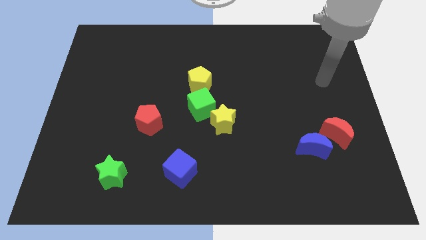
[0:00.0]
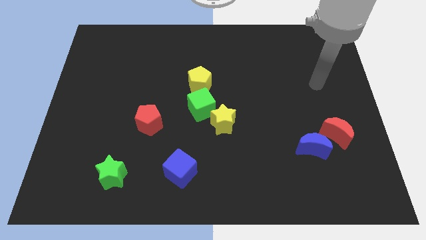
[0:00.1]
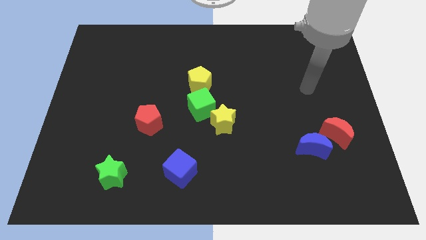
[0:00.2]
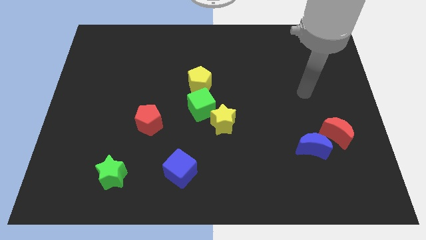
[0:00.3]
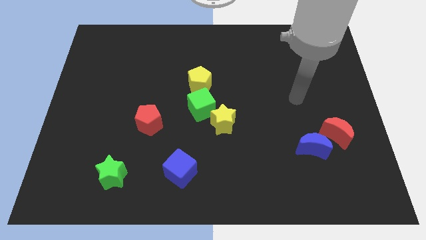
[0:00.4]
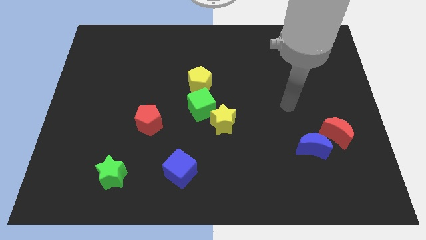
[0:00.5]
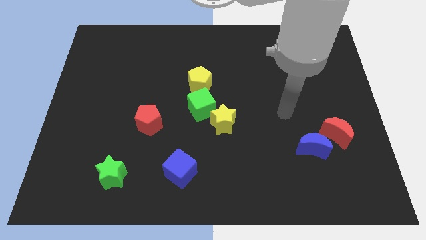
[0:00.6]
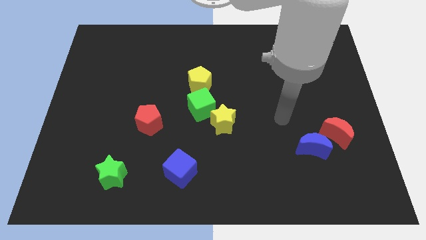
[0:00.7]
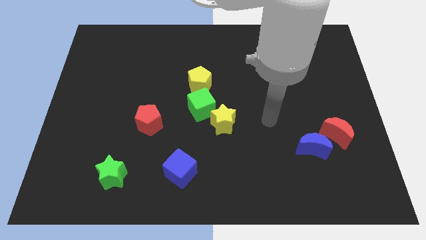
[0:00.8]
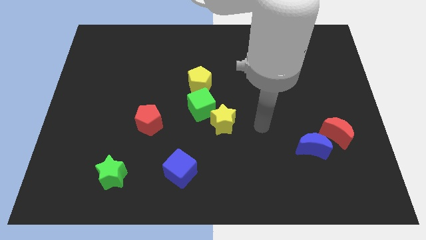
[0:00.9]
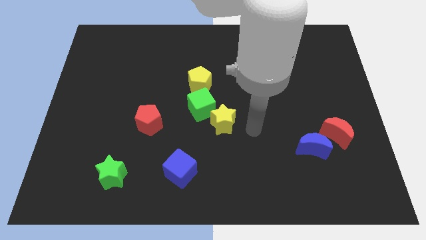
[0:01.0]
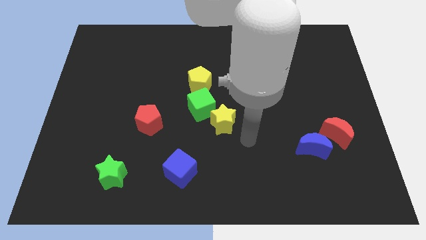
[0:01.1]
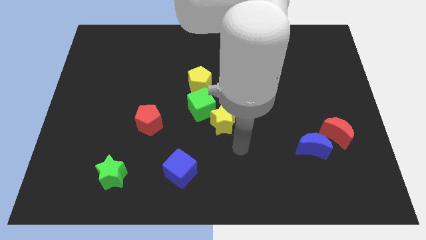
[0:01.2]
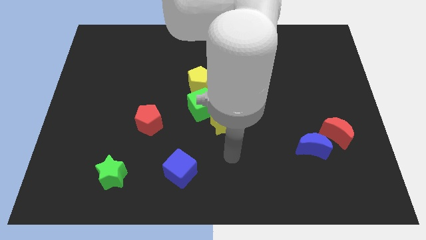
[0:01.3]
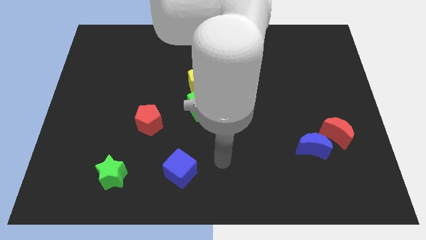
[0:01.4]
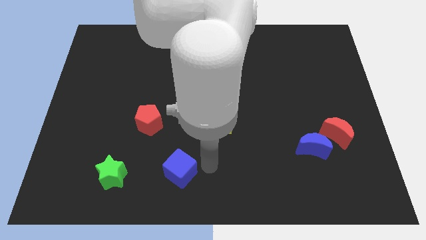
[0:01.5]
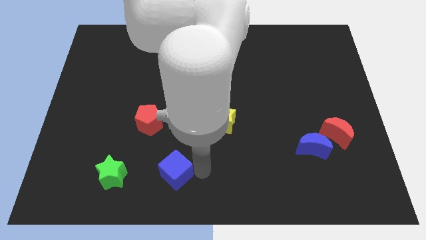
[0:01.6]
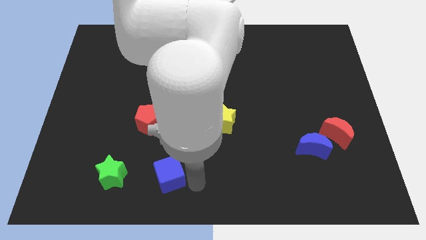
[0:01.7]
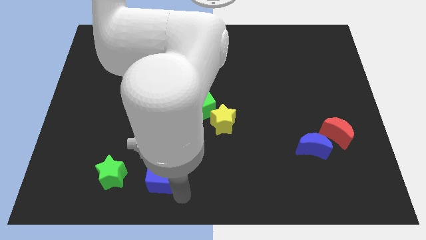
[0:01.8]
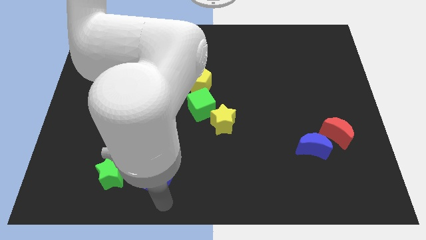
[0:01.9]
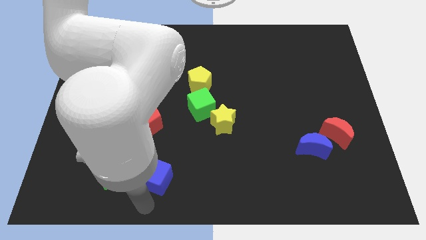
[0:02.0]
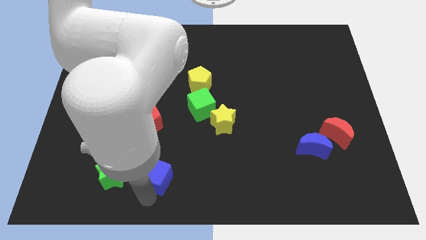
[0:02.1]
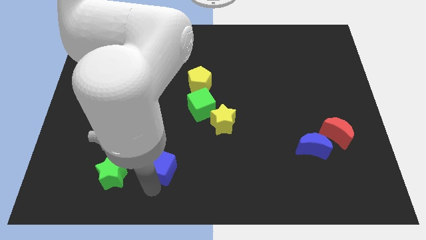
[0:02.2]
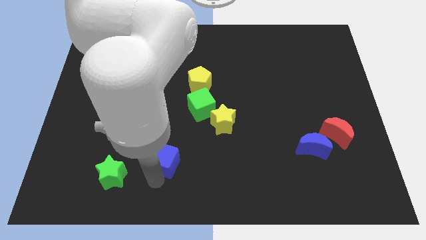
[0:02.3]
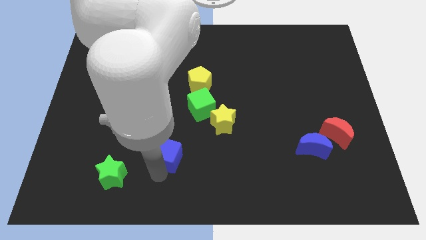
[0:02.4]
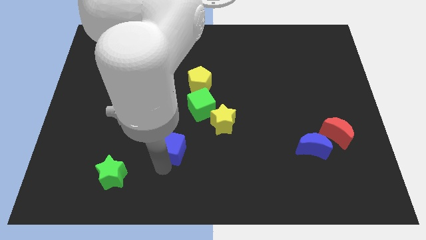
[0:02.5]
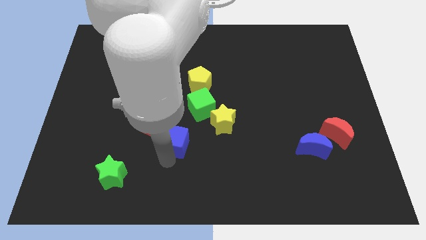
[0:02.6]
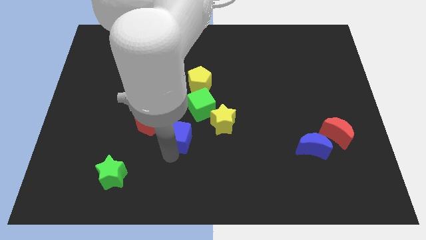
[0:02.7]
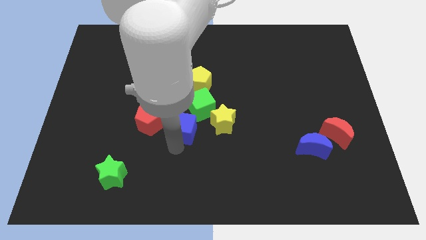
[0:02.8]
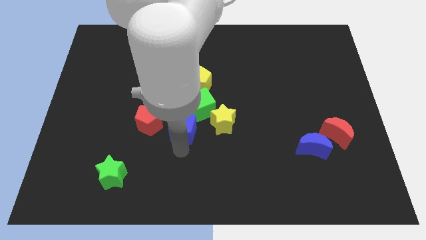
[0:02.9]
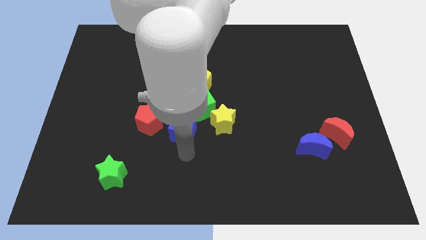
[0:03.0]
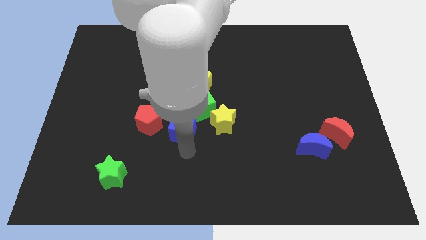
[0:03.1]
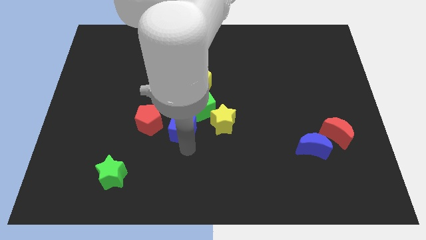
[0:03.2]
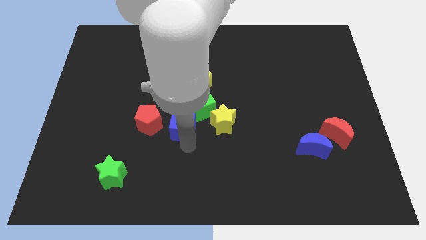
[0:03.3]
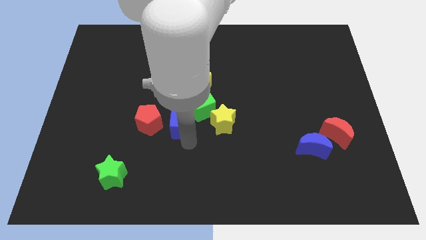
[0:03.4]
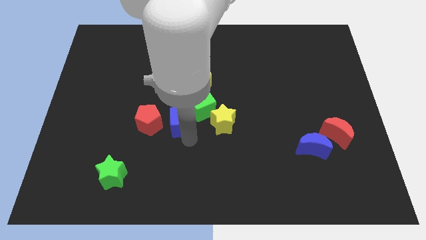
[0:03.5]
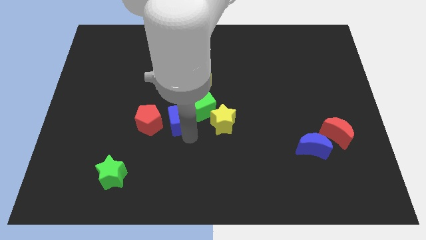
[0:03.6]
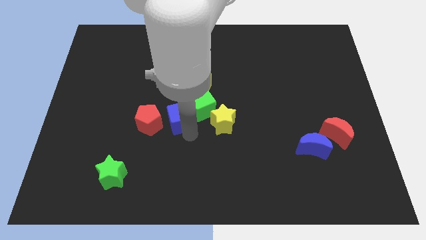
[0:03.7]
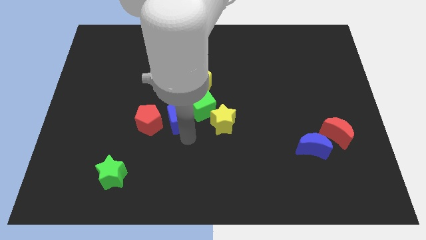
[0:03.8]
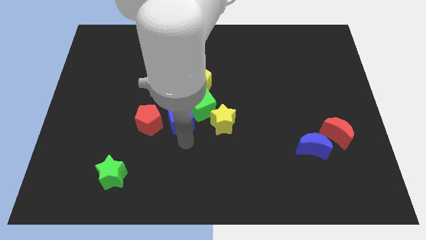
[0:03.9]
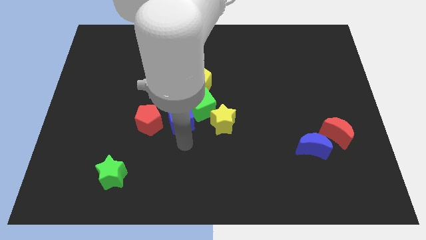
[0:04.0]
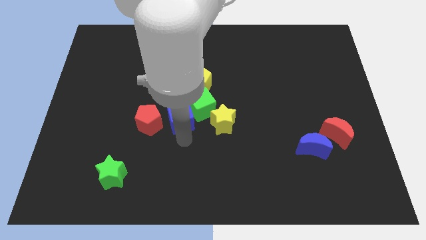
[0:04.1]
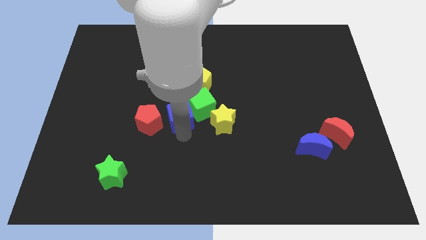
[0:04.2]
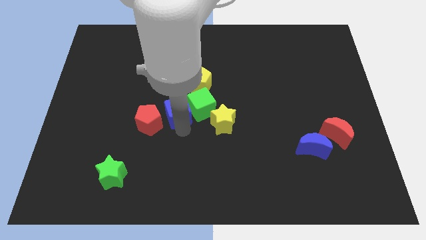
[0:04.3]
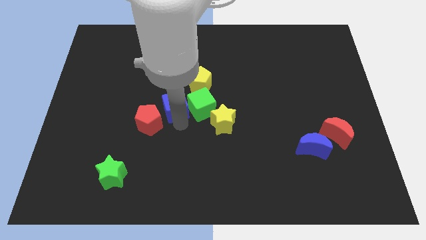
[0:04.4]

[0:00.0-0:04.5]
push the blue cube to the top left side of the green cube

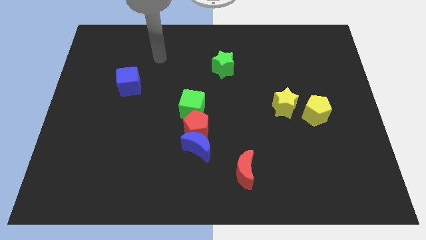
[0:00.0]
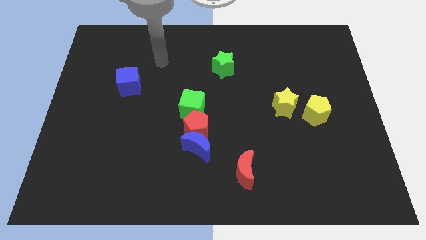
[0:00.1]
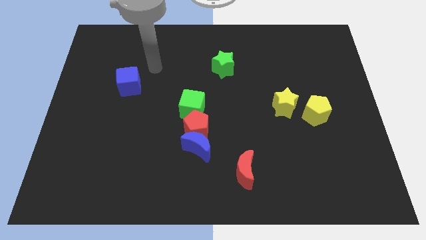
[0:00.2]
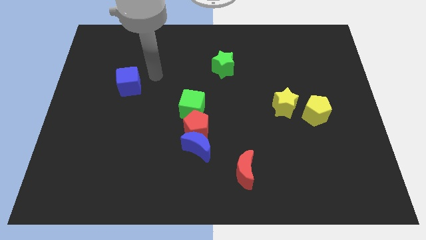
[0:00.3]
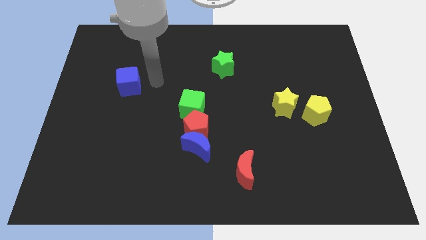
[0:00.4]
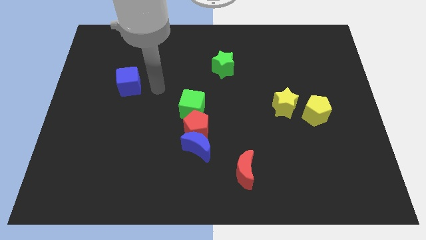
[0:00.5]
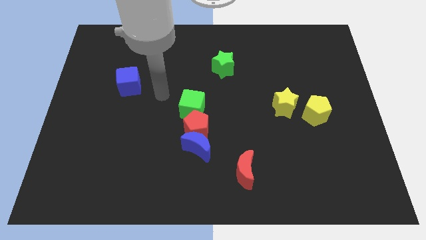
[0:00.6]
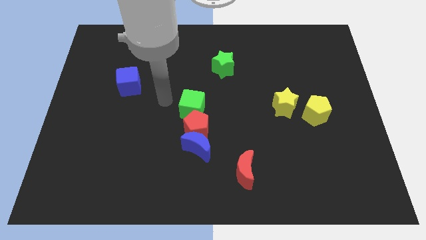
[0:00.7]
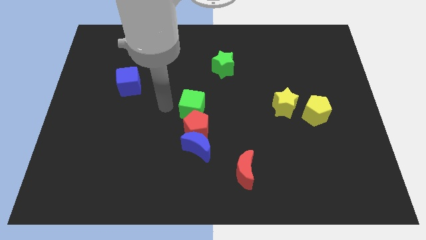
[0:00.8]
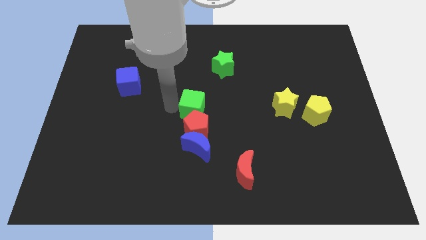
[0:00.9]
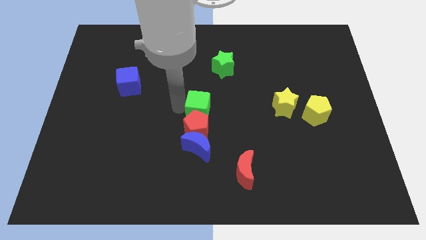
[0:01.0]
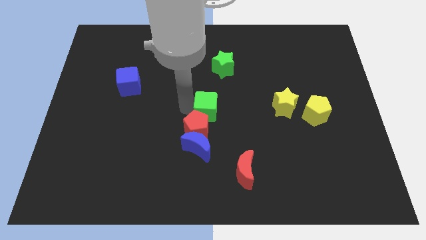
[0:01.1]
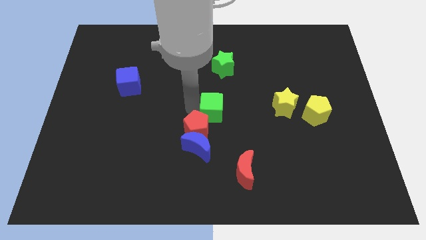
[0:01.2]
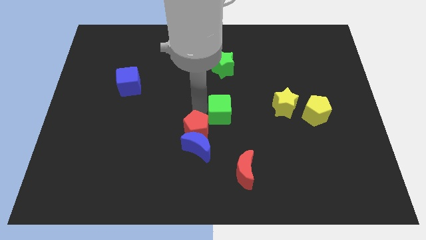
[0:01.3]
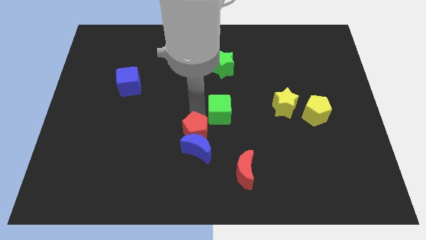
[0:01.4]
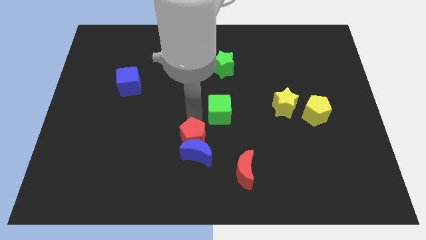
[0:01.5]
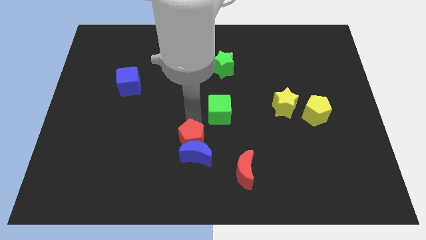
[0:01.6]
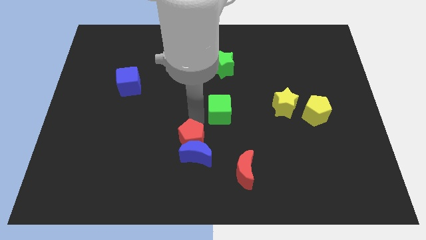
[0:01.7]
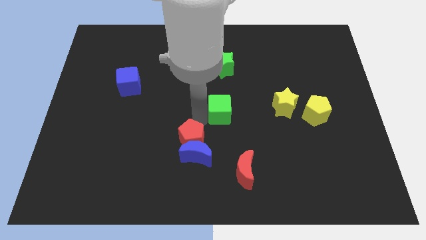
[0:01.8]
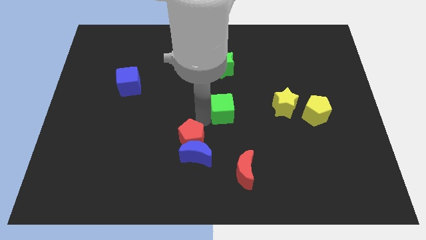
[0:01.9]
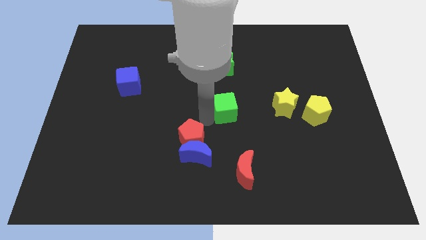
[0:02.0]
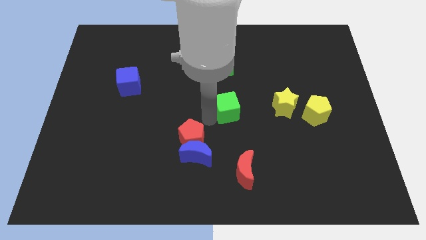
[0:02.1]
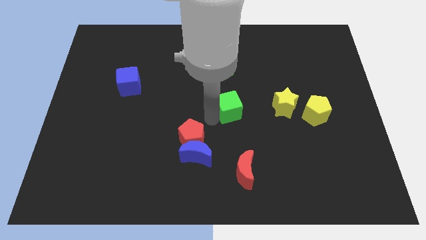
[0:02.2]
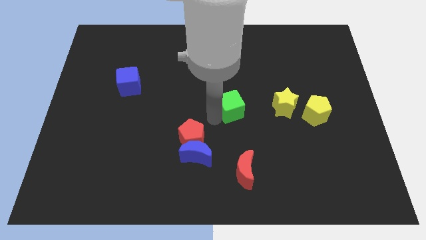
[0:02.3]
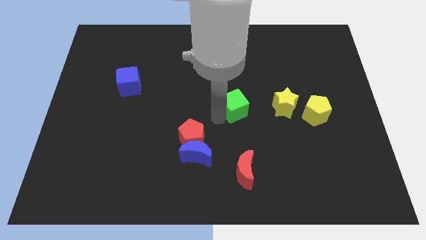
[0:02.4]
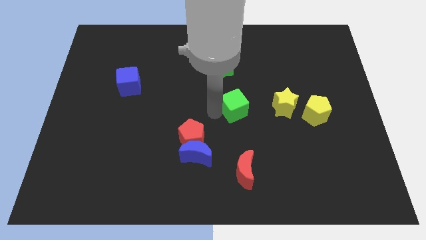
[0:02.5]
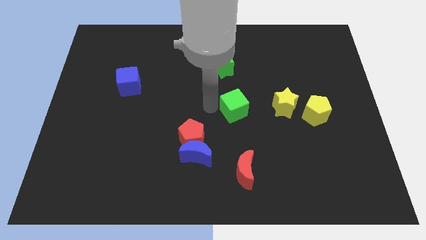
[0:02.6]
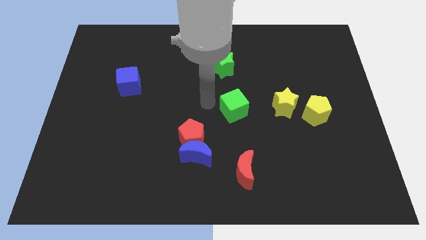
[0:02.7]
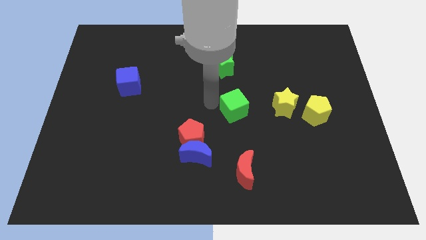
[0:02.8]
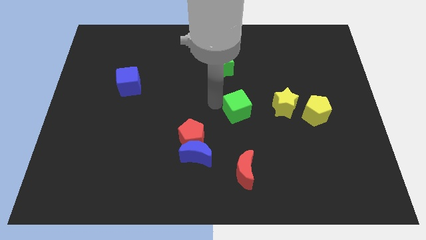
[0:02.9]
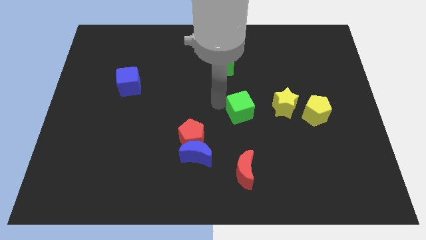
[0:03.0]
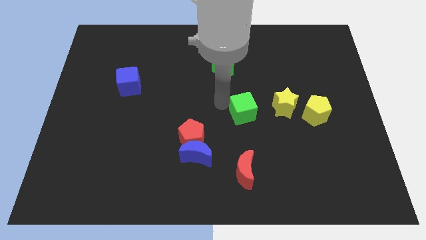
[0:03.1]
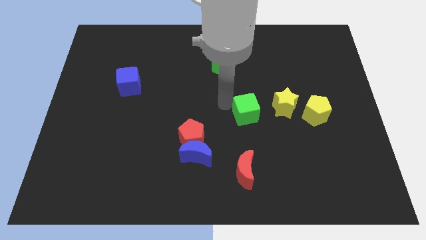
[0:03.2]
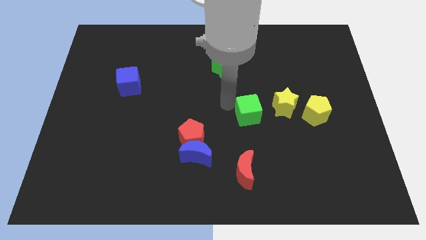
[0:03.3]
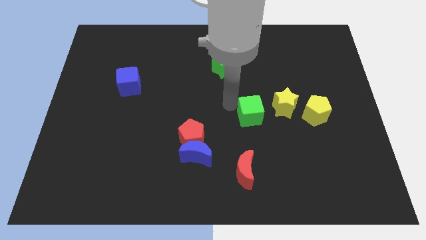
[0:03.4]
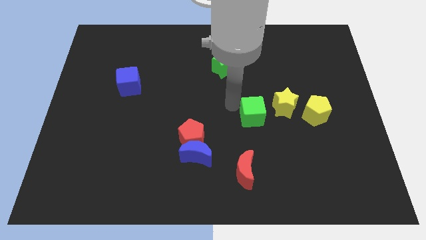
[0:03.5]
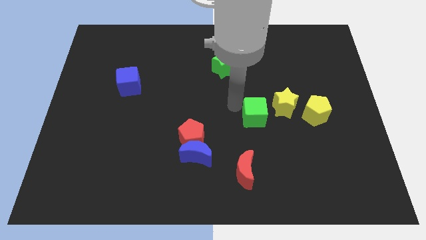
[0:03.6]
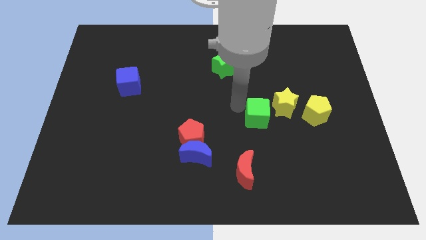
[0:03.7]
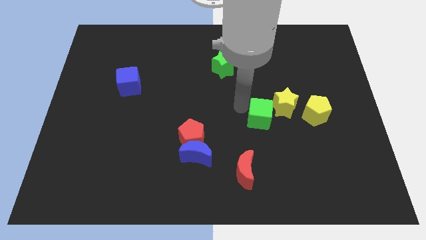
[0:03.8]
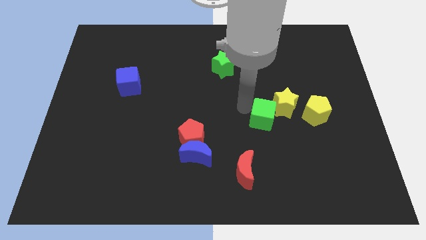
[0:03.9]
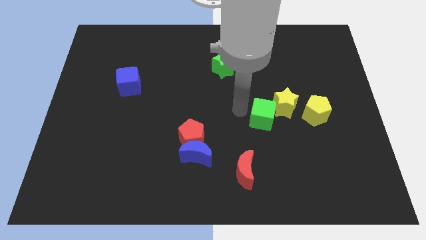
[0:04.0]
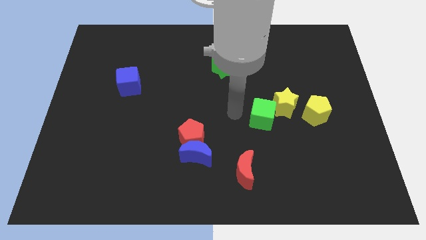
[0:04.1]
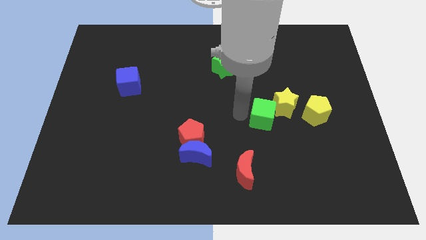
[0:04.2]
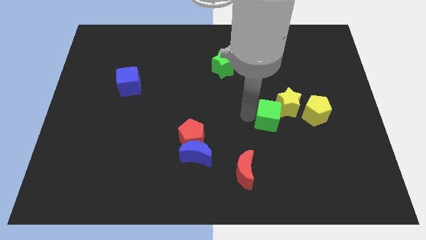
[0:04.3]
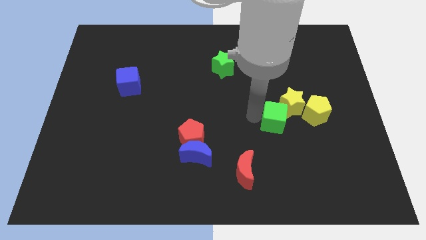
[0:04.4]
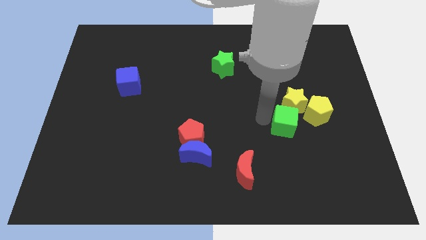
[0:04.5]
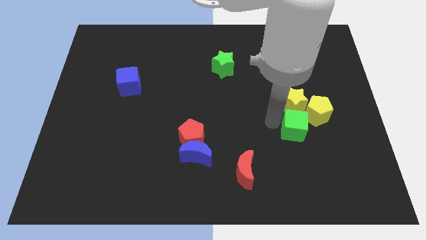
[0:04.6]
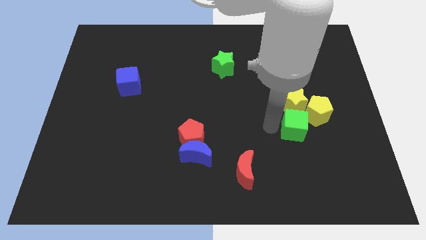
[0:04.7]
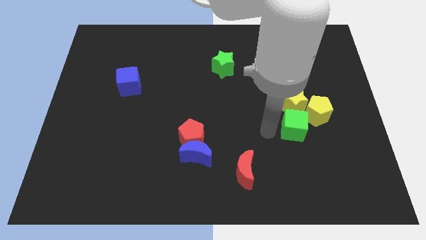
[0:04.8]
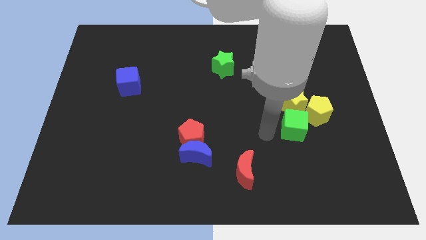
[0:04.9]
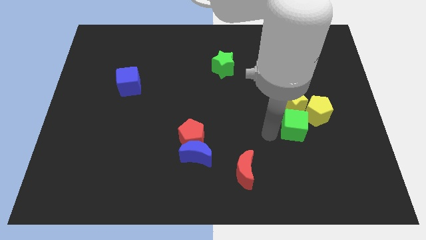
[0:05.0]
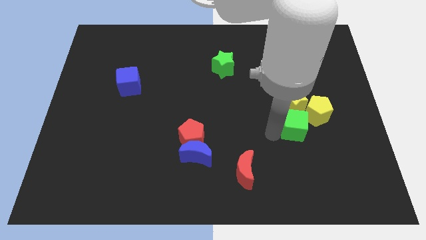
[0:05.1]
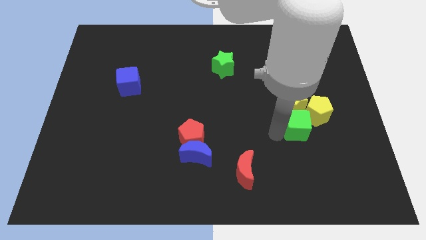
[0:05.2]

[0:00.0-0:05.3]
push the green cube diagonally down and to the right of the yellow star
